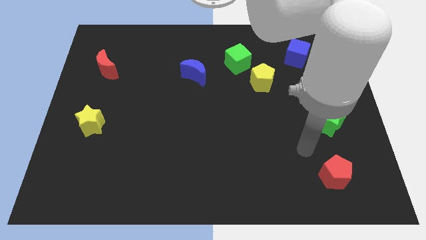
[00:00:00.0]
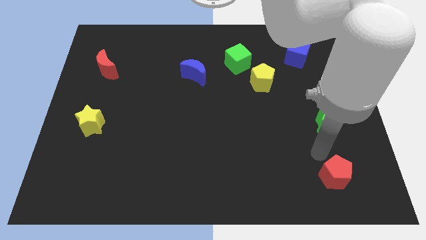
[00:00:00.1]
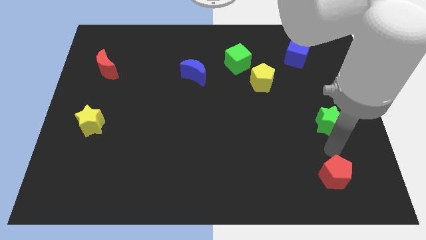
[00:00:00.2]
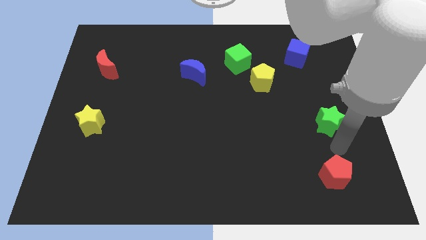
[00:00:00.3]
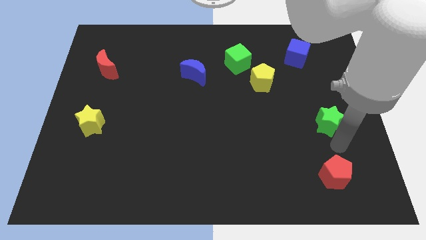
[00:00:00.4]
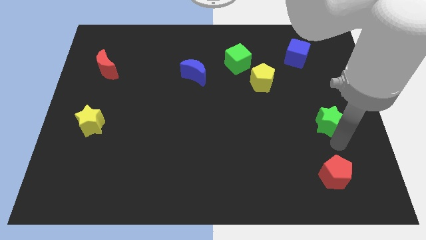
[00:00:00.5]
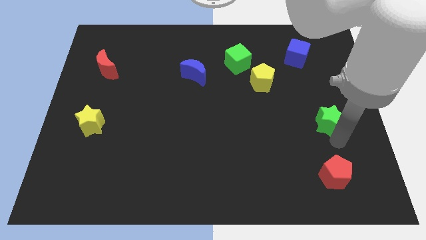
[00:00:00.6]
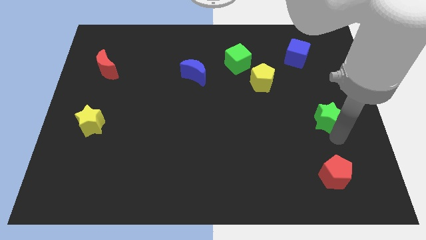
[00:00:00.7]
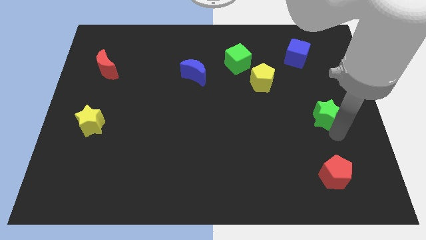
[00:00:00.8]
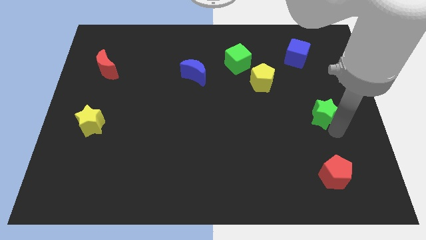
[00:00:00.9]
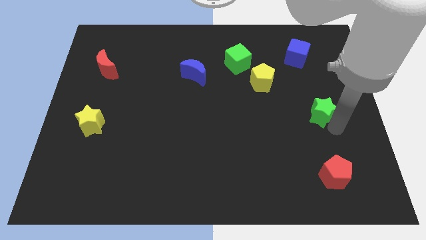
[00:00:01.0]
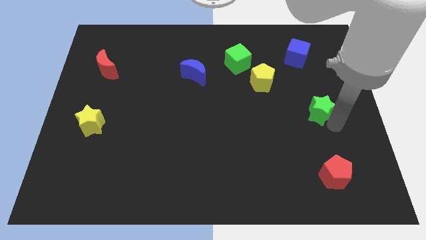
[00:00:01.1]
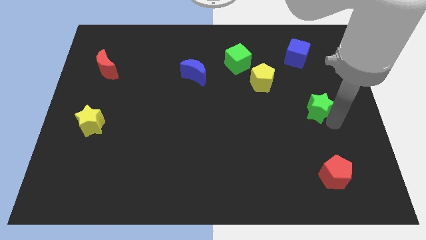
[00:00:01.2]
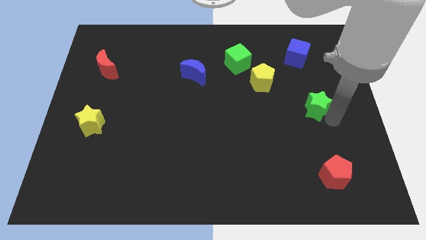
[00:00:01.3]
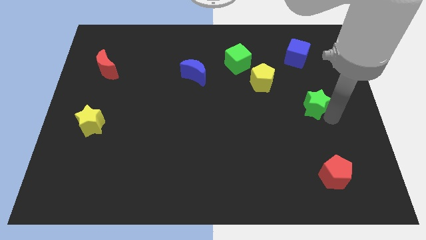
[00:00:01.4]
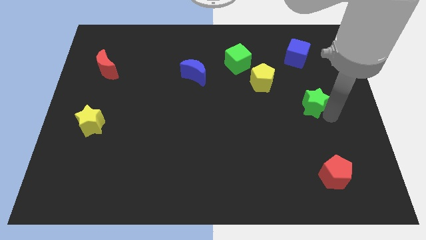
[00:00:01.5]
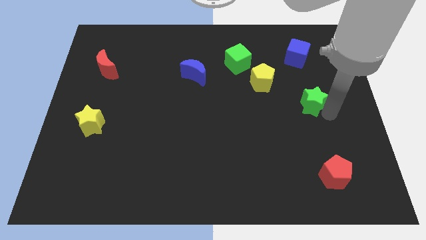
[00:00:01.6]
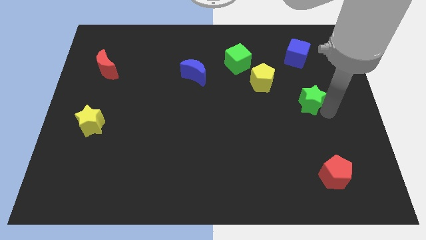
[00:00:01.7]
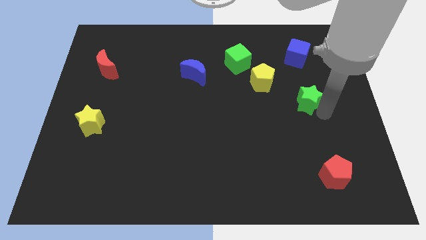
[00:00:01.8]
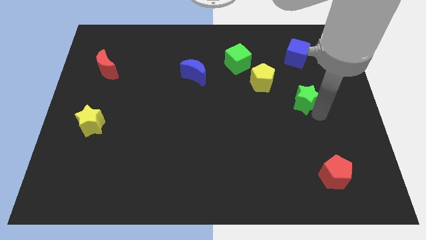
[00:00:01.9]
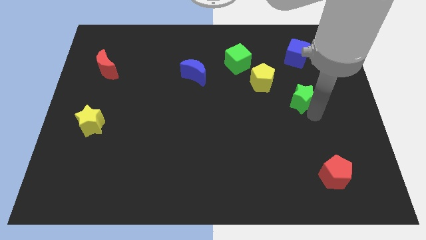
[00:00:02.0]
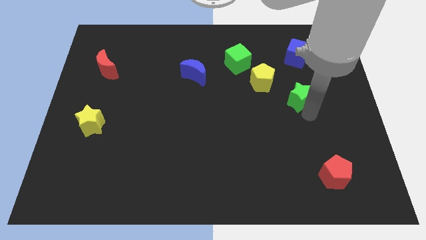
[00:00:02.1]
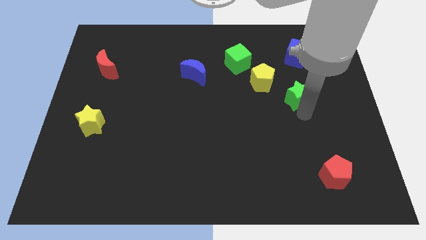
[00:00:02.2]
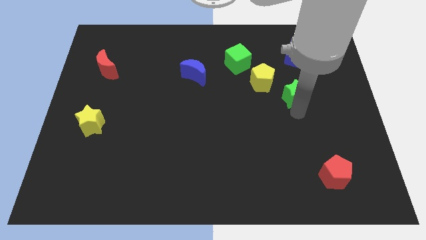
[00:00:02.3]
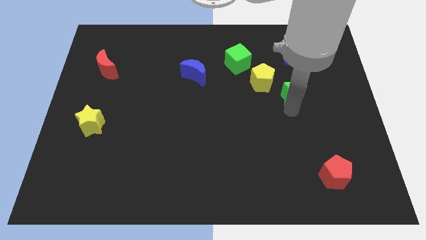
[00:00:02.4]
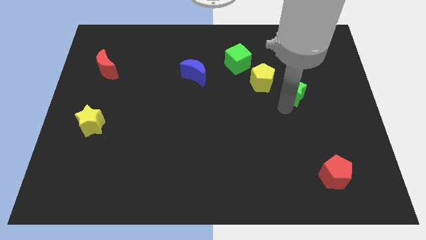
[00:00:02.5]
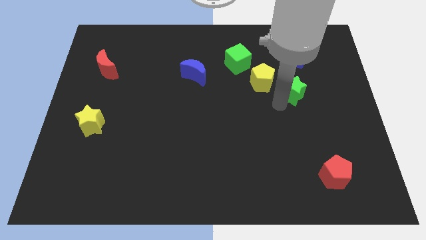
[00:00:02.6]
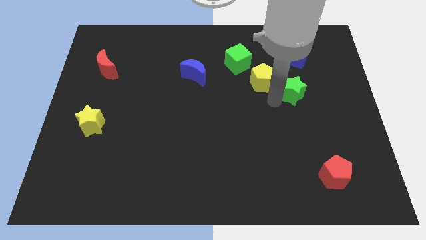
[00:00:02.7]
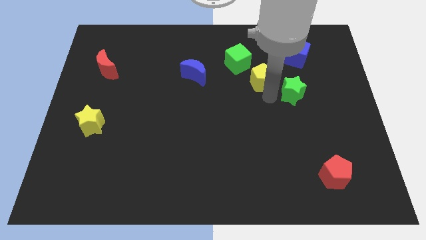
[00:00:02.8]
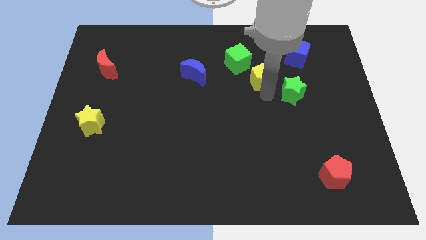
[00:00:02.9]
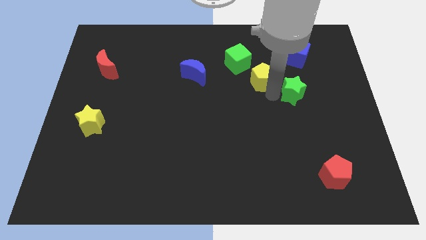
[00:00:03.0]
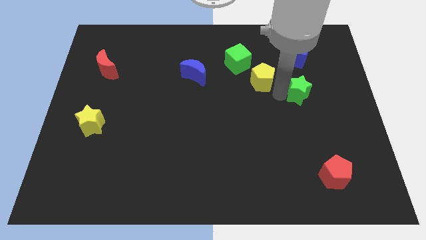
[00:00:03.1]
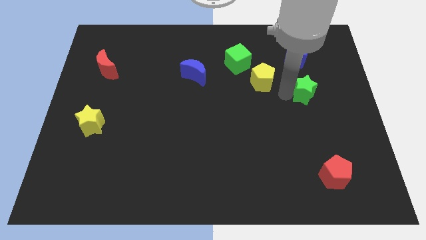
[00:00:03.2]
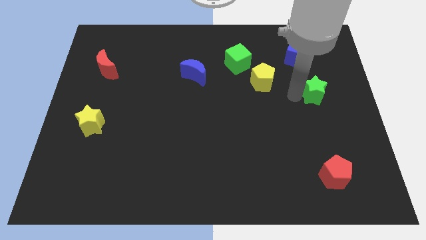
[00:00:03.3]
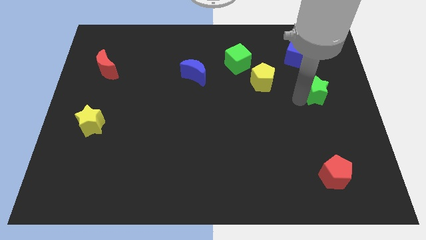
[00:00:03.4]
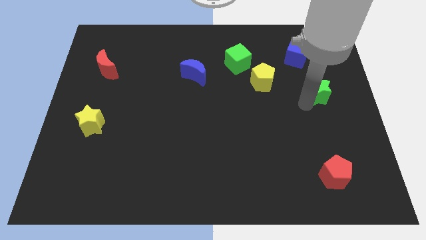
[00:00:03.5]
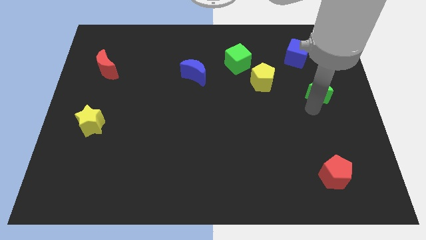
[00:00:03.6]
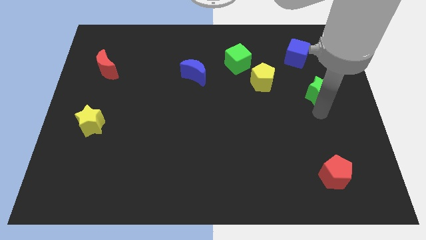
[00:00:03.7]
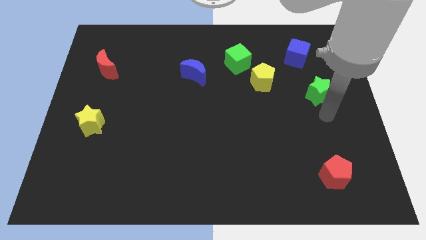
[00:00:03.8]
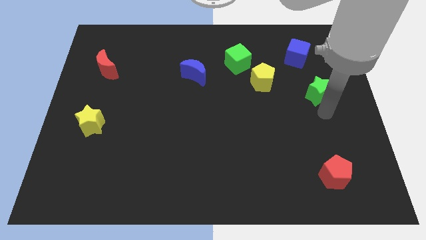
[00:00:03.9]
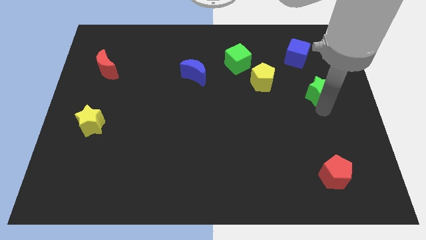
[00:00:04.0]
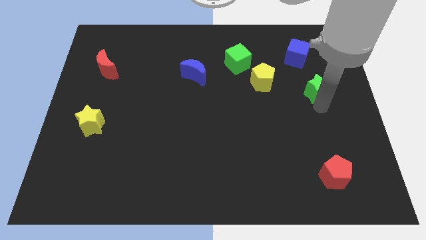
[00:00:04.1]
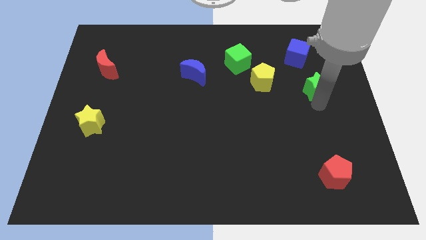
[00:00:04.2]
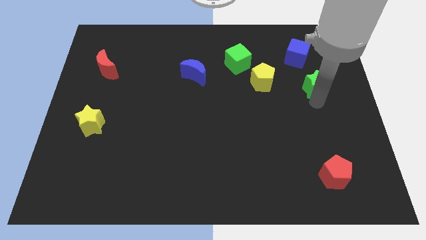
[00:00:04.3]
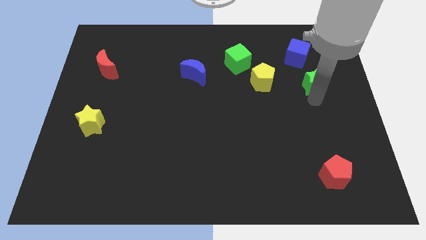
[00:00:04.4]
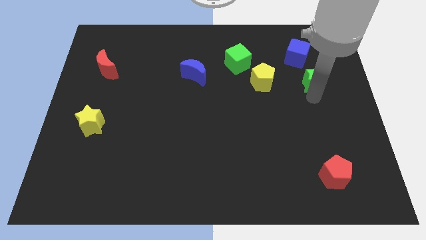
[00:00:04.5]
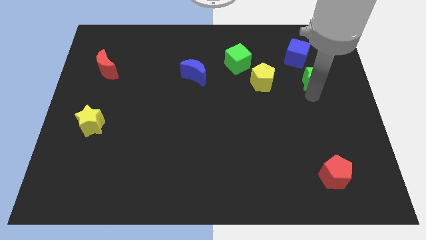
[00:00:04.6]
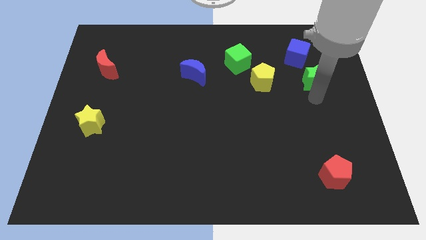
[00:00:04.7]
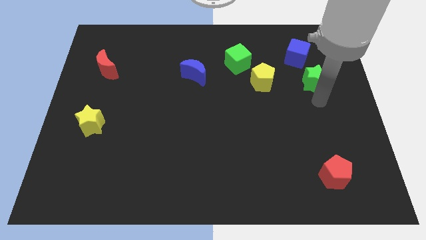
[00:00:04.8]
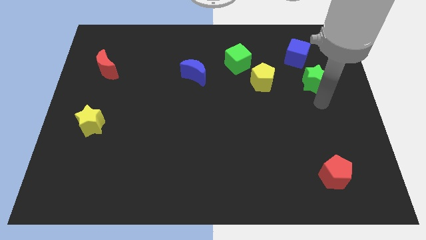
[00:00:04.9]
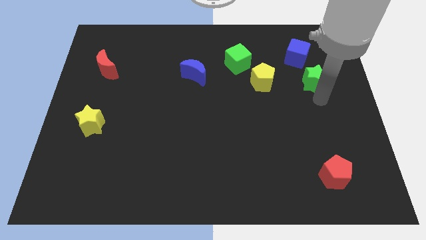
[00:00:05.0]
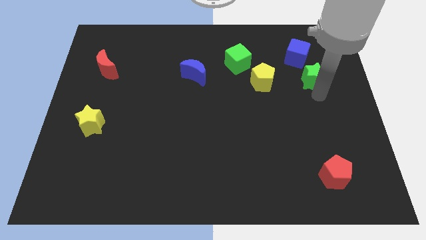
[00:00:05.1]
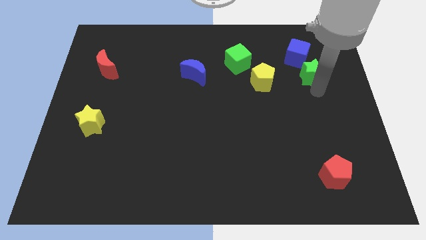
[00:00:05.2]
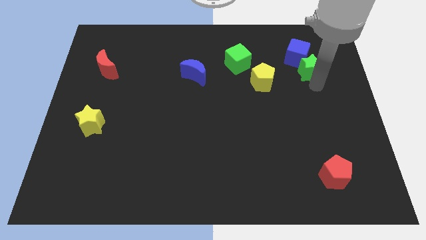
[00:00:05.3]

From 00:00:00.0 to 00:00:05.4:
push the green star close to the blue cube

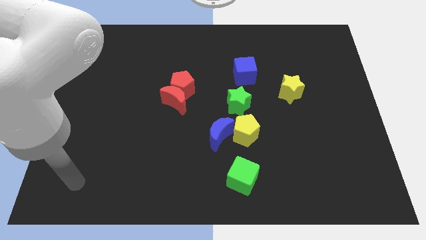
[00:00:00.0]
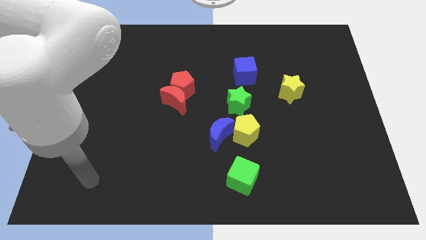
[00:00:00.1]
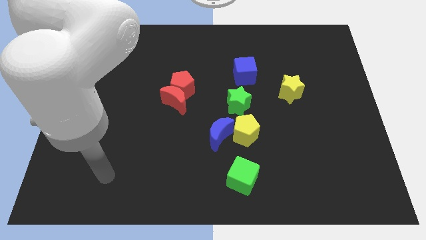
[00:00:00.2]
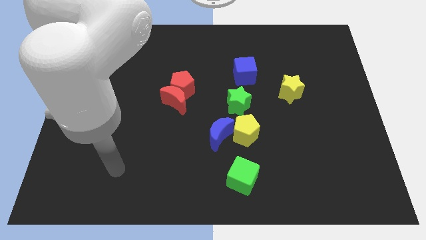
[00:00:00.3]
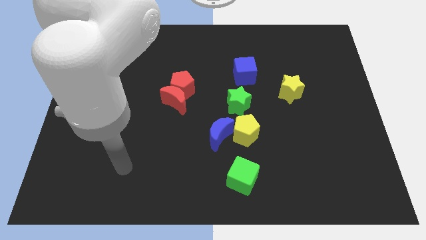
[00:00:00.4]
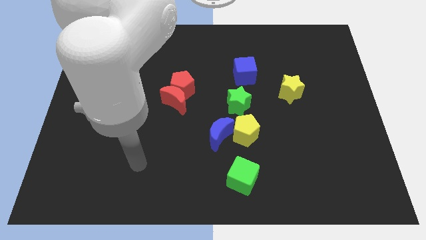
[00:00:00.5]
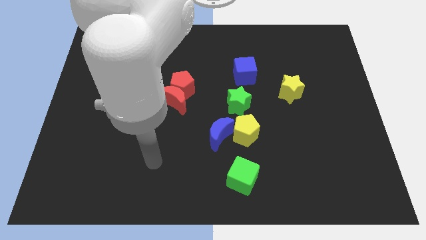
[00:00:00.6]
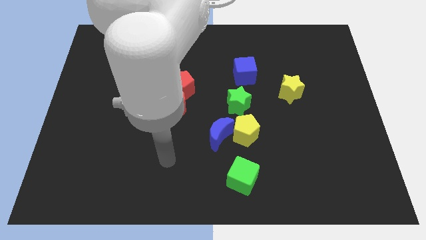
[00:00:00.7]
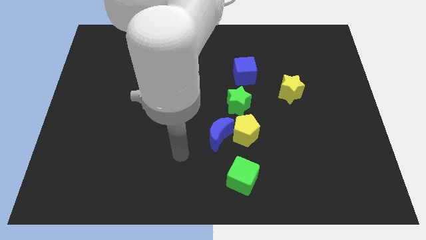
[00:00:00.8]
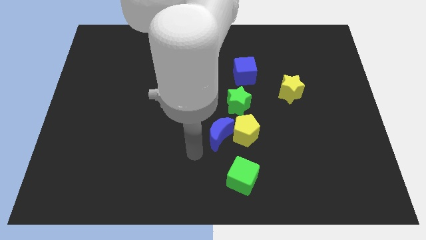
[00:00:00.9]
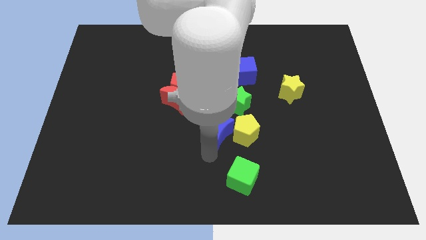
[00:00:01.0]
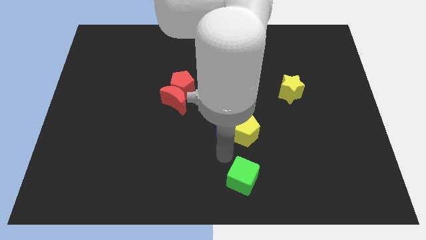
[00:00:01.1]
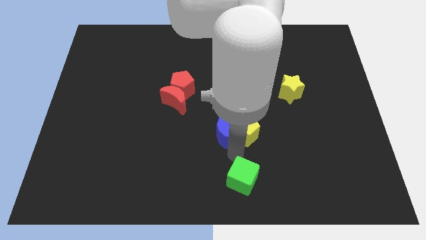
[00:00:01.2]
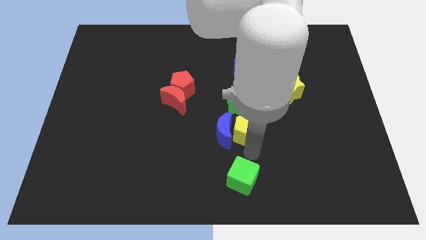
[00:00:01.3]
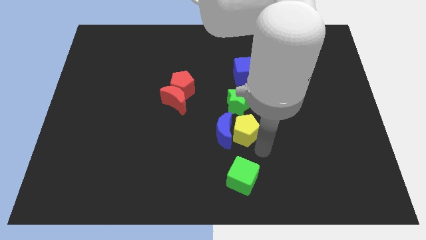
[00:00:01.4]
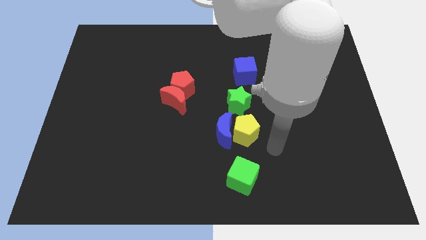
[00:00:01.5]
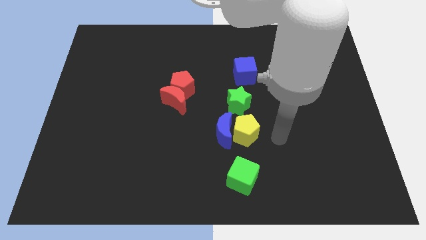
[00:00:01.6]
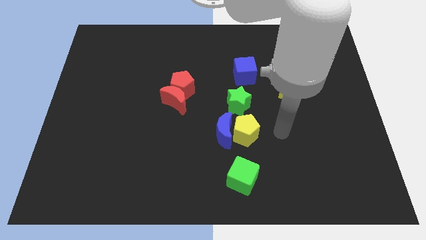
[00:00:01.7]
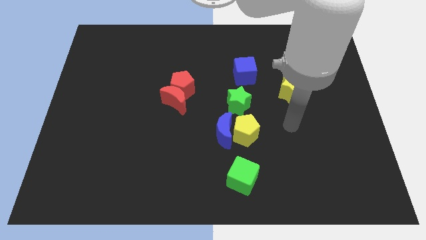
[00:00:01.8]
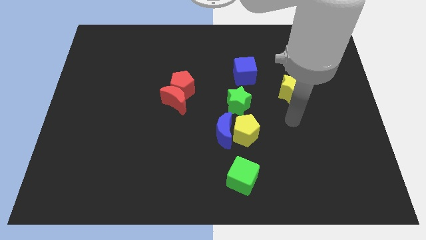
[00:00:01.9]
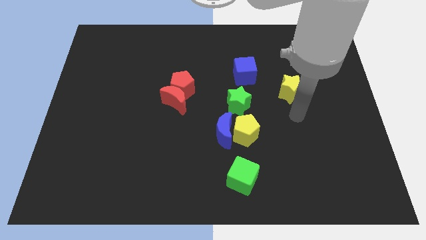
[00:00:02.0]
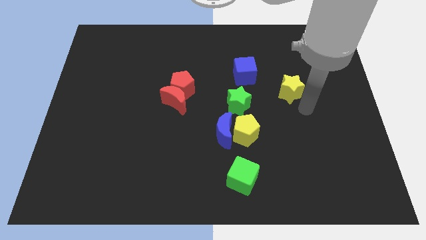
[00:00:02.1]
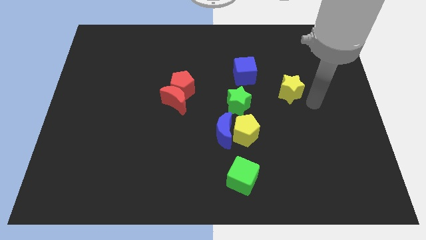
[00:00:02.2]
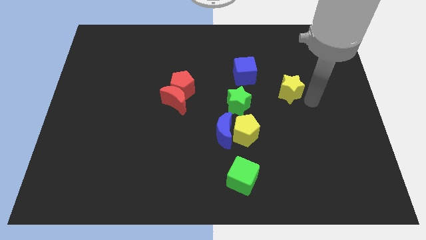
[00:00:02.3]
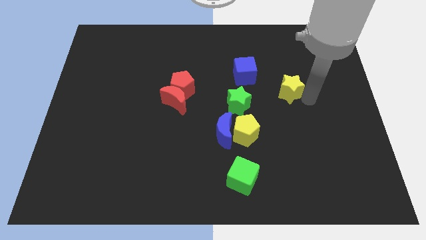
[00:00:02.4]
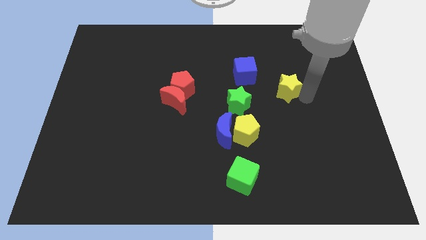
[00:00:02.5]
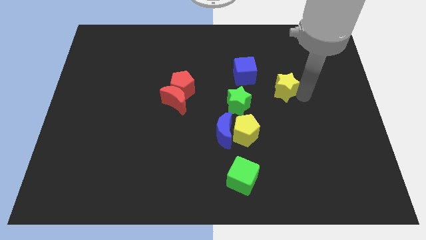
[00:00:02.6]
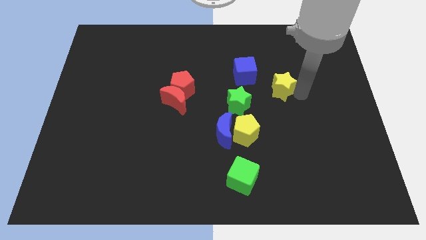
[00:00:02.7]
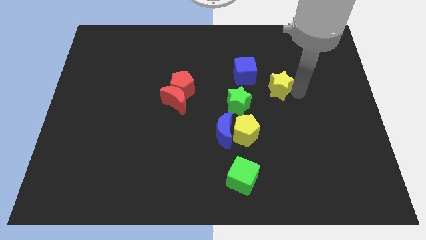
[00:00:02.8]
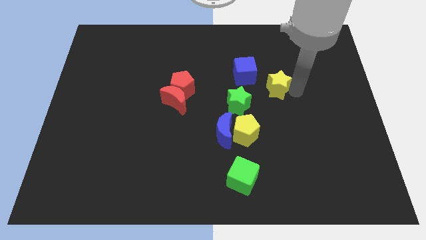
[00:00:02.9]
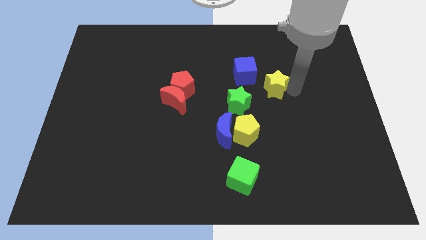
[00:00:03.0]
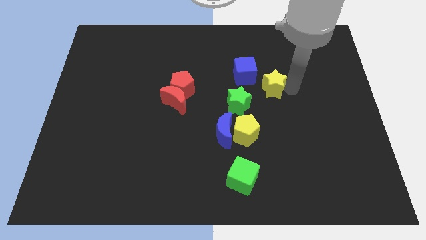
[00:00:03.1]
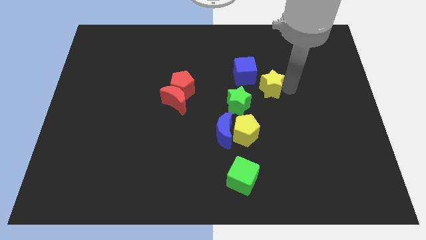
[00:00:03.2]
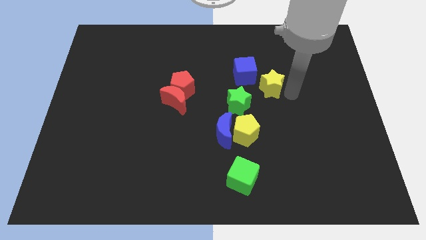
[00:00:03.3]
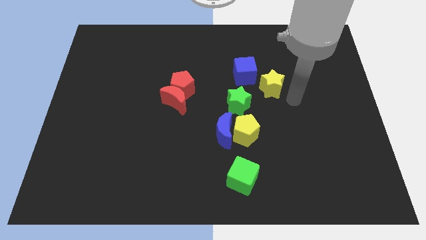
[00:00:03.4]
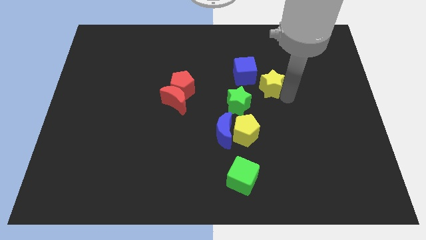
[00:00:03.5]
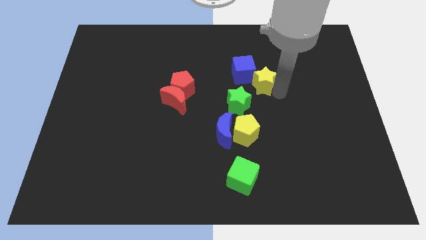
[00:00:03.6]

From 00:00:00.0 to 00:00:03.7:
push the yellow star close to the blue cube
